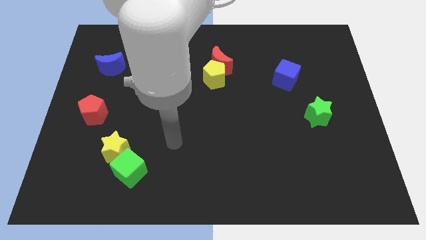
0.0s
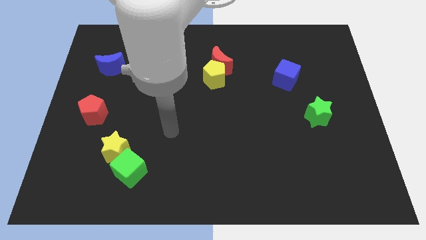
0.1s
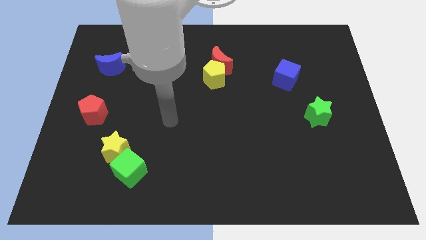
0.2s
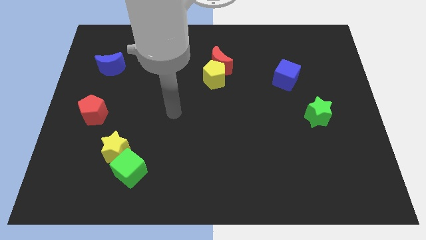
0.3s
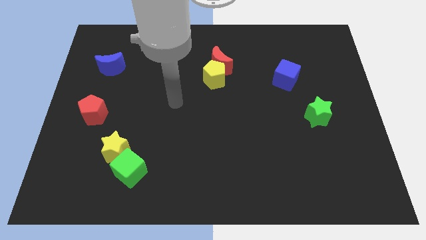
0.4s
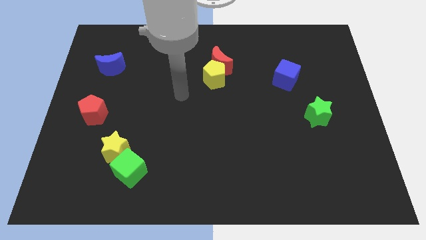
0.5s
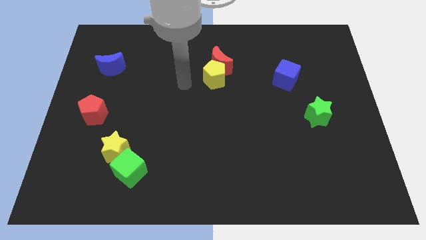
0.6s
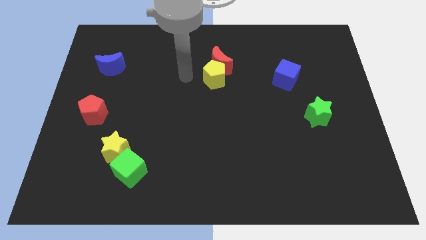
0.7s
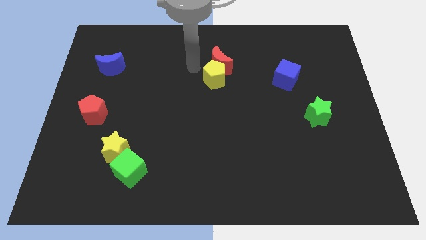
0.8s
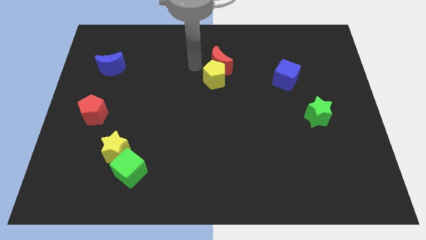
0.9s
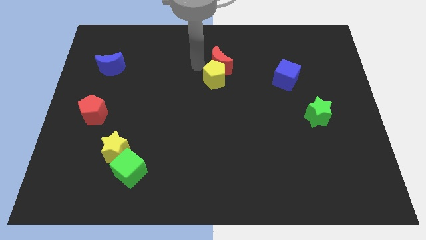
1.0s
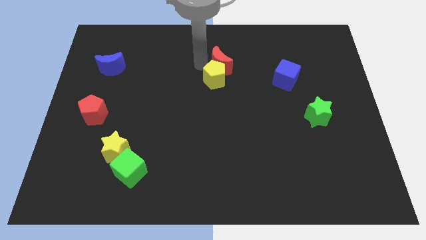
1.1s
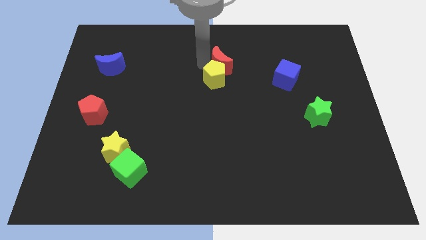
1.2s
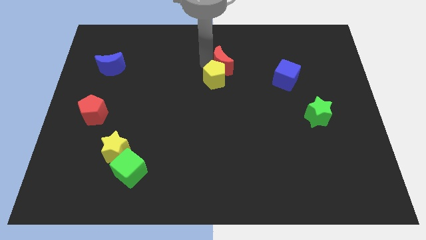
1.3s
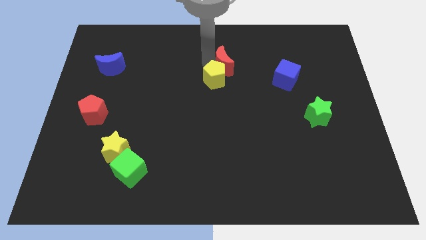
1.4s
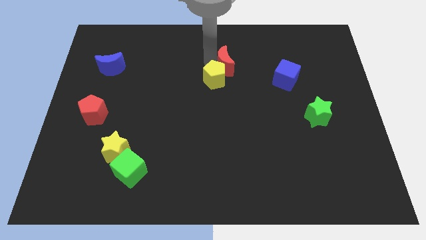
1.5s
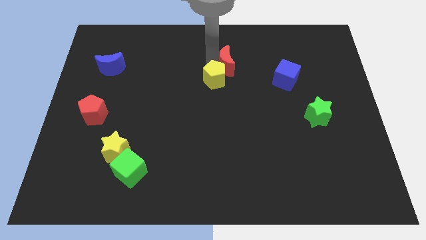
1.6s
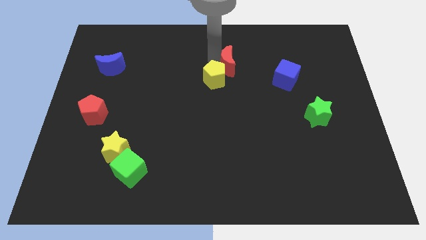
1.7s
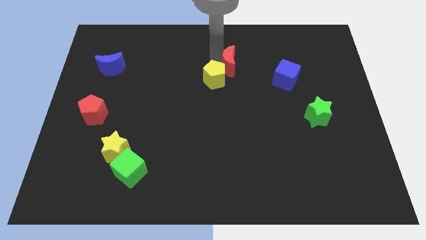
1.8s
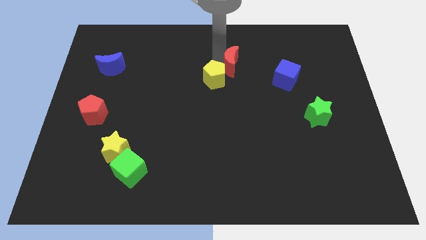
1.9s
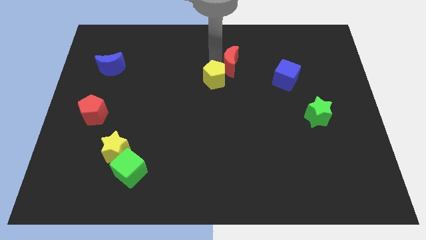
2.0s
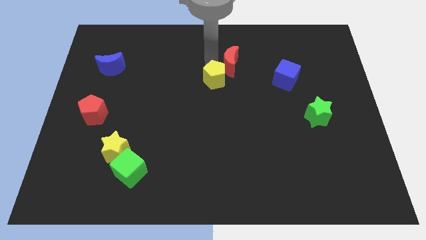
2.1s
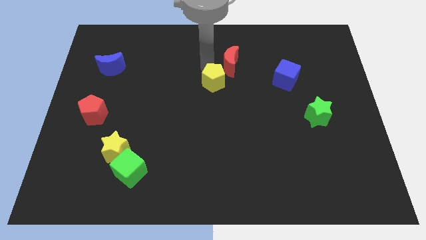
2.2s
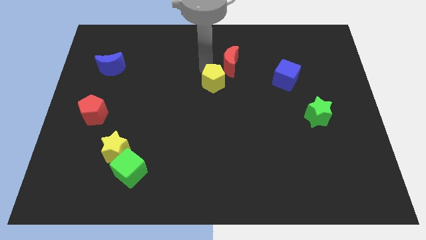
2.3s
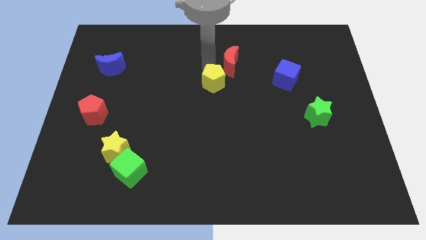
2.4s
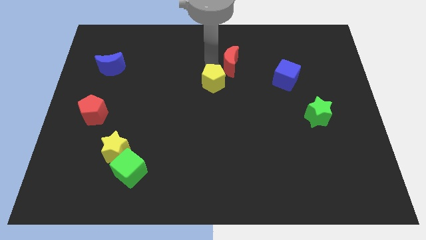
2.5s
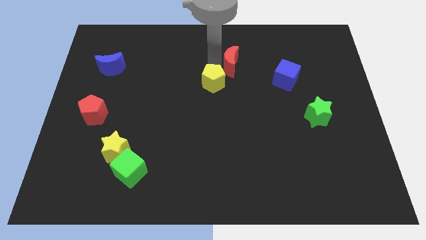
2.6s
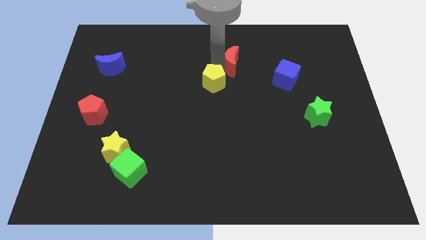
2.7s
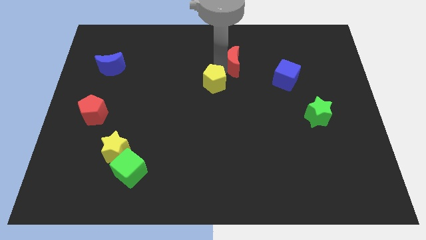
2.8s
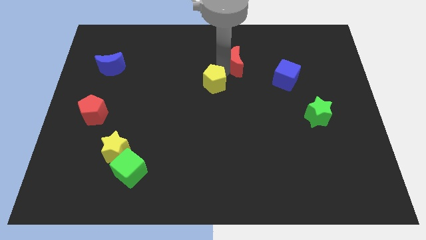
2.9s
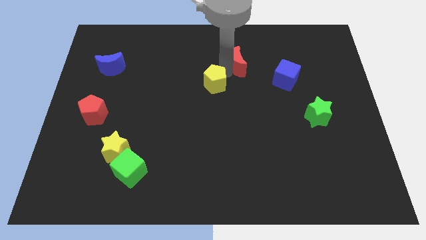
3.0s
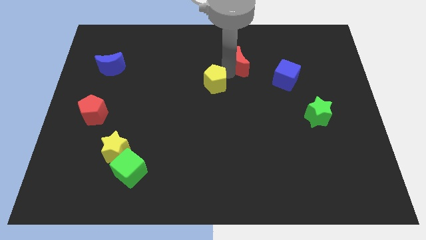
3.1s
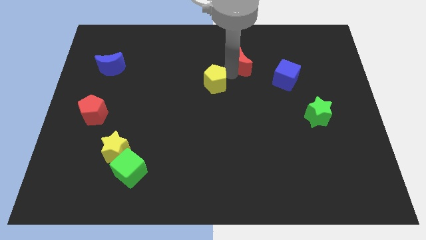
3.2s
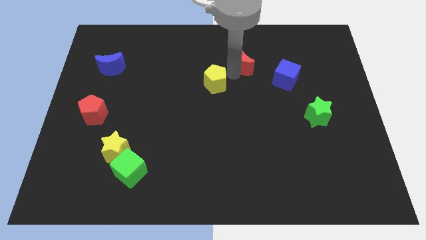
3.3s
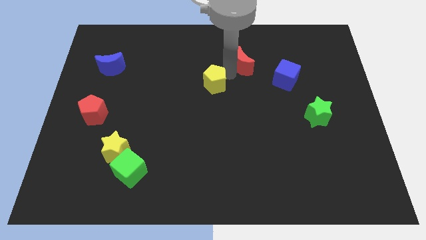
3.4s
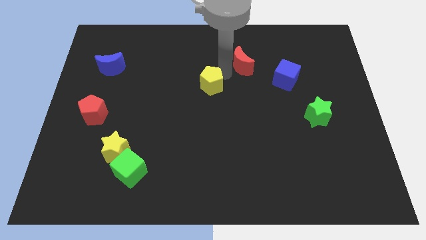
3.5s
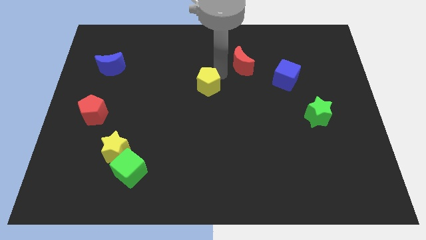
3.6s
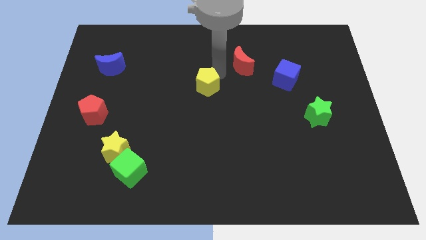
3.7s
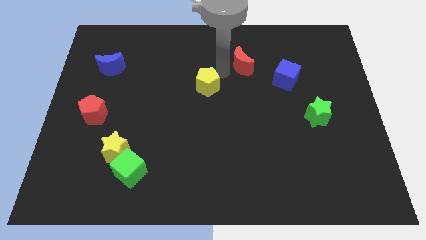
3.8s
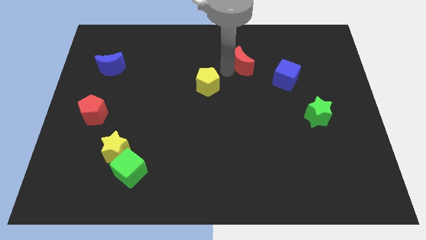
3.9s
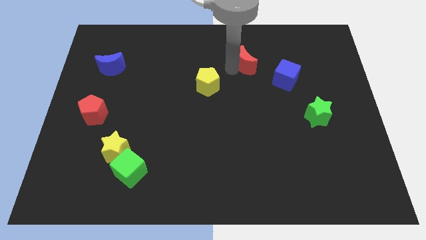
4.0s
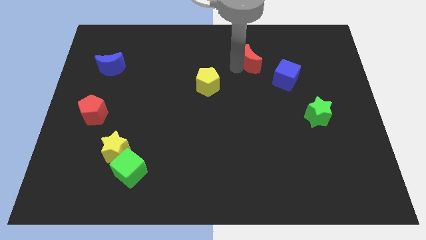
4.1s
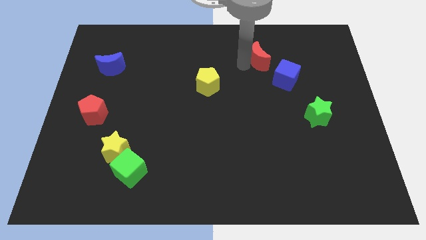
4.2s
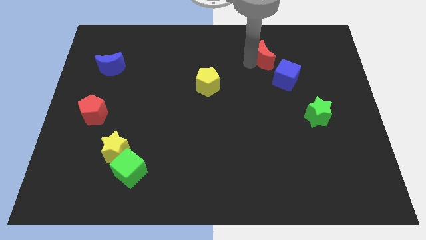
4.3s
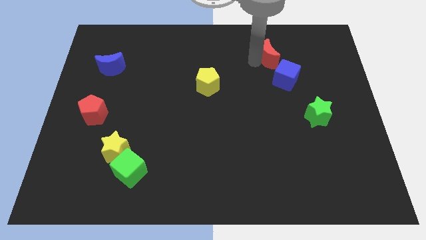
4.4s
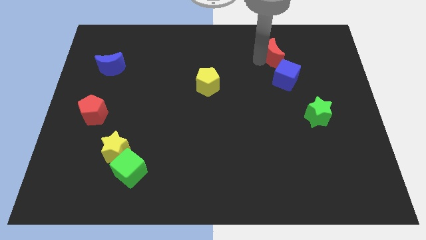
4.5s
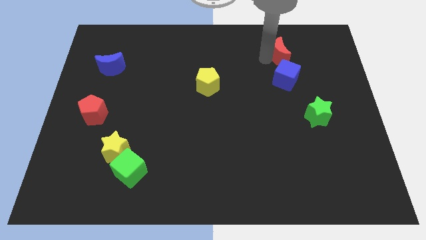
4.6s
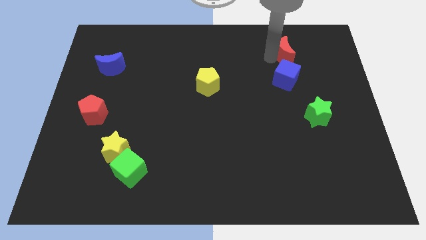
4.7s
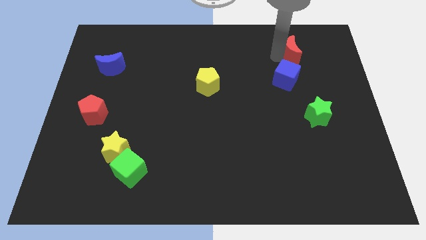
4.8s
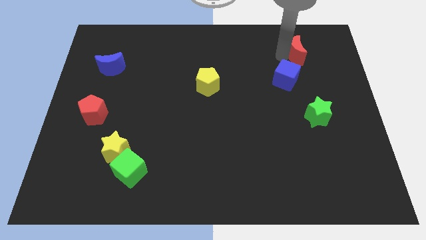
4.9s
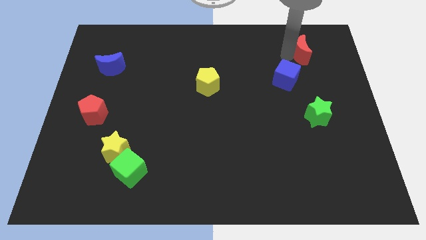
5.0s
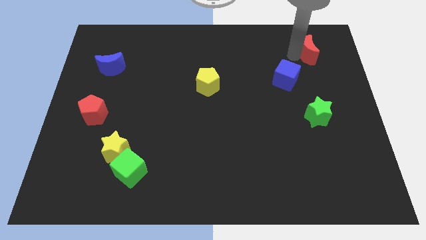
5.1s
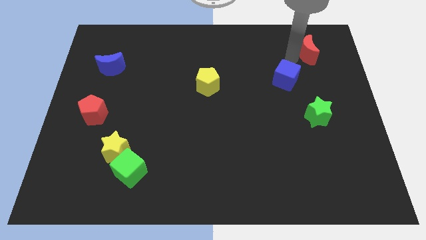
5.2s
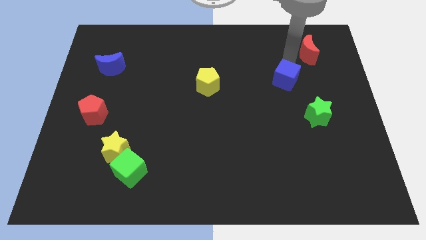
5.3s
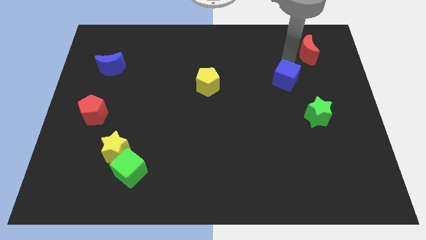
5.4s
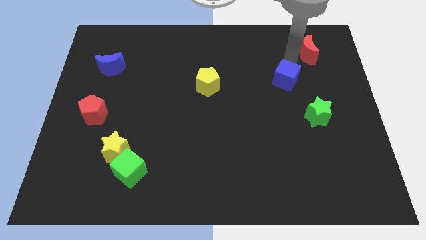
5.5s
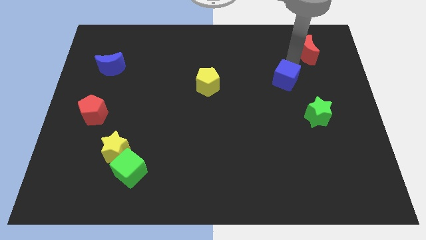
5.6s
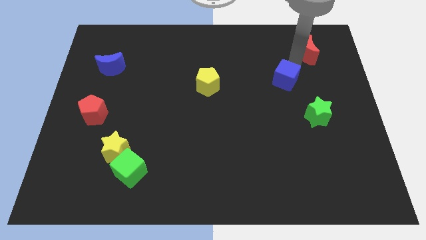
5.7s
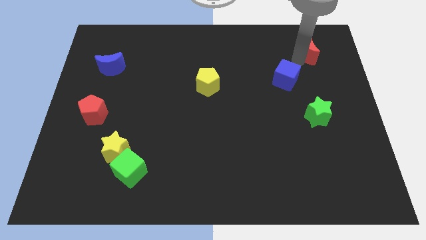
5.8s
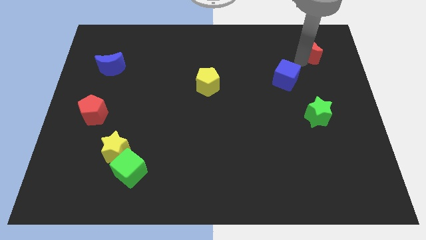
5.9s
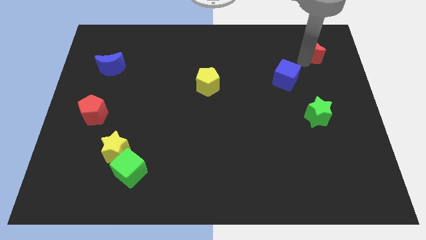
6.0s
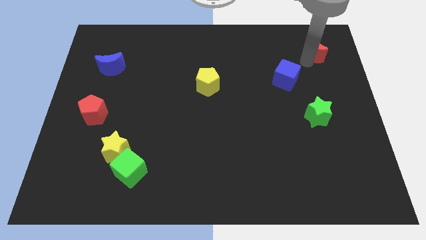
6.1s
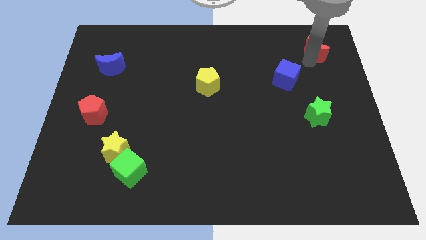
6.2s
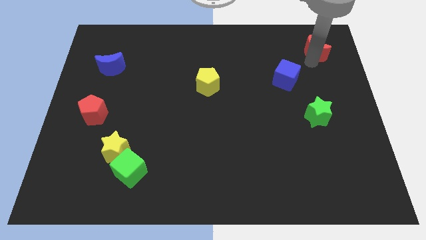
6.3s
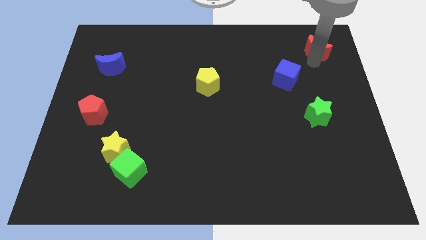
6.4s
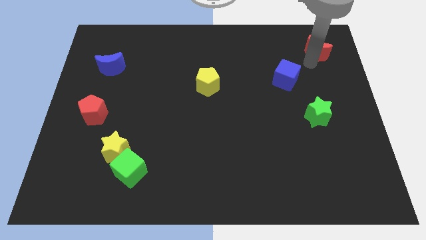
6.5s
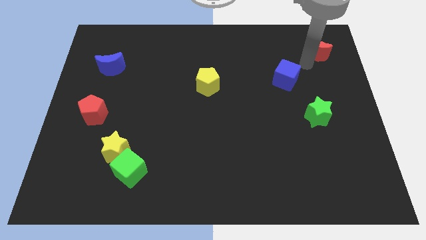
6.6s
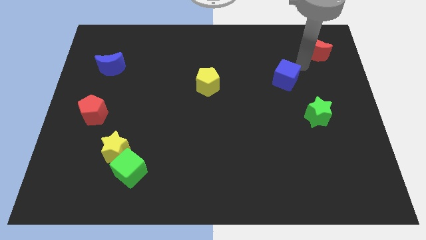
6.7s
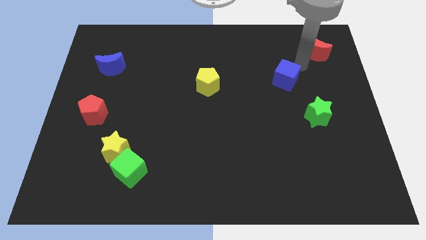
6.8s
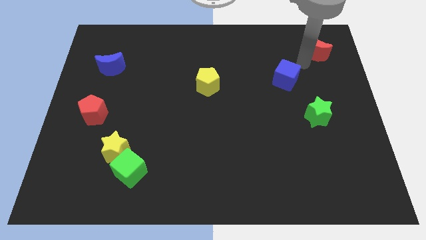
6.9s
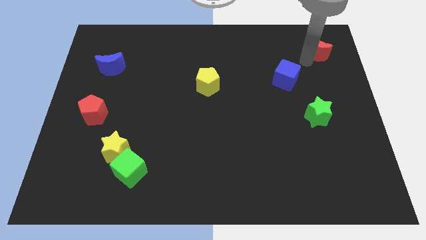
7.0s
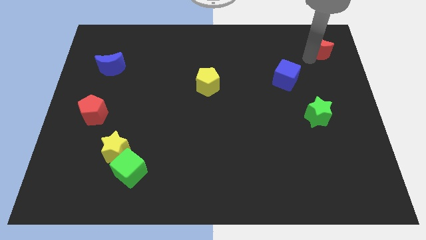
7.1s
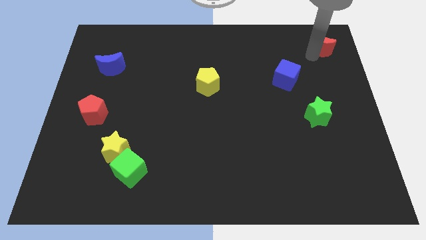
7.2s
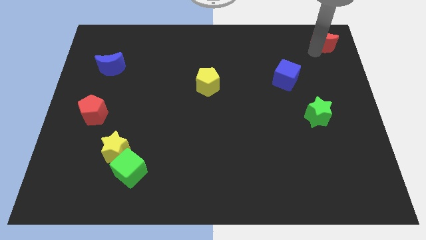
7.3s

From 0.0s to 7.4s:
put the red moon to the upper right corner
